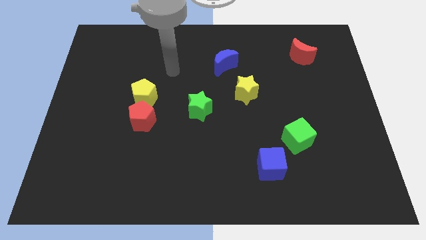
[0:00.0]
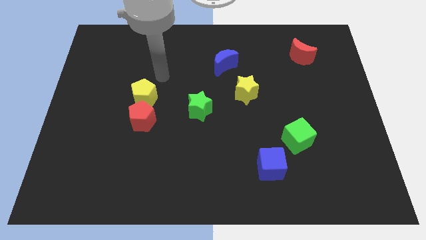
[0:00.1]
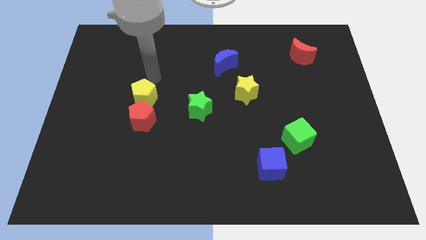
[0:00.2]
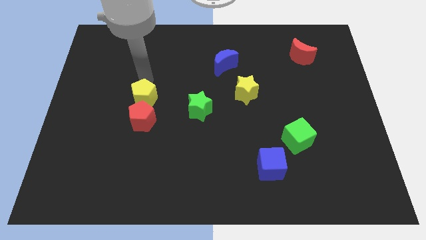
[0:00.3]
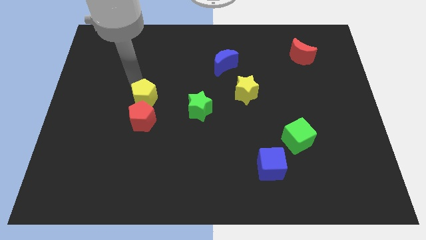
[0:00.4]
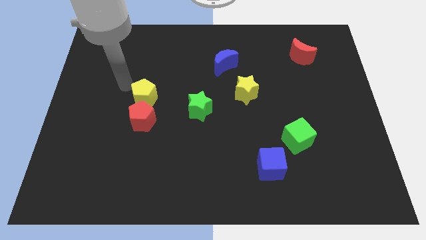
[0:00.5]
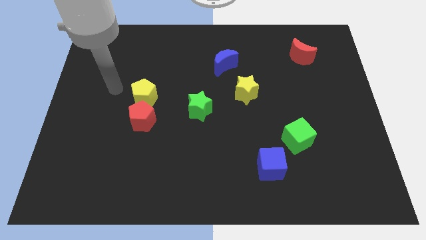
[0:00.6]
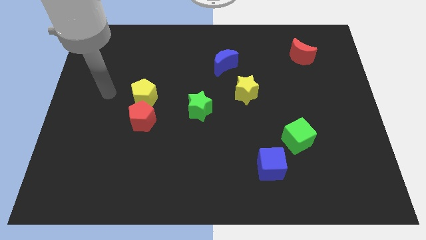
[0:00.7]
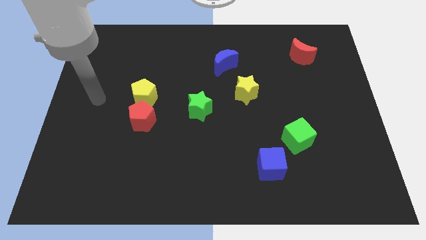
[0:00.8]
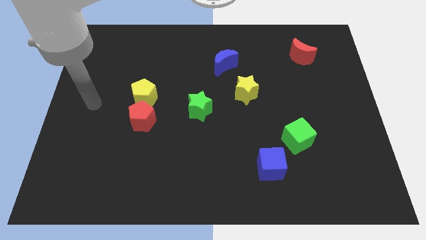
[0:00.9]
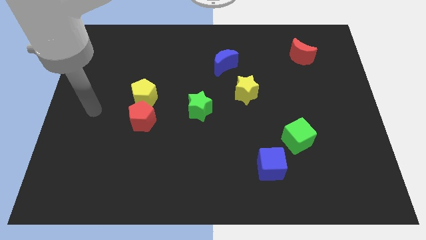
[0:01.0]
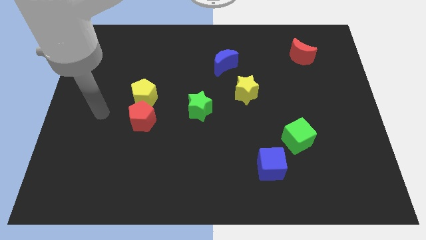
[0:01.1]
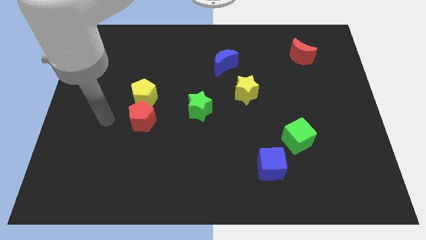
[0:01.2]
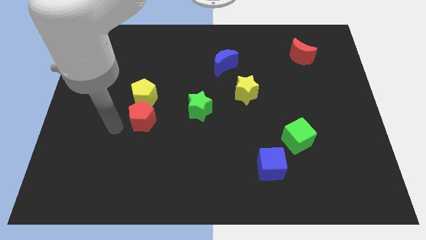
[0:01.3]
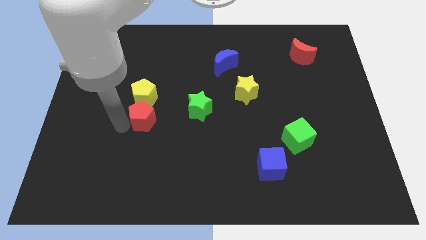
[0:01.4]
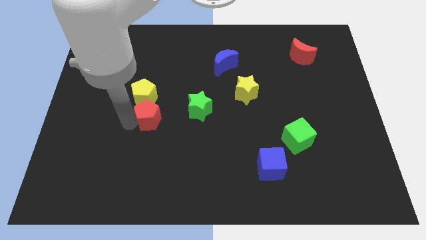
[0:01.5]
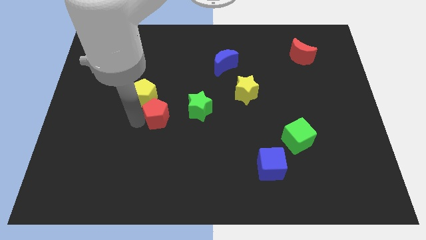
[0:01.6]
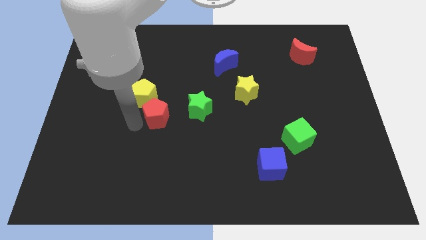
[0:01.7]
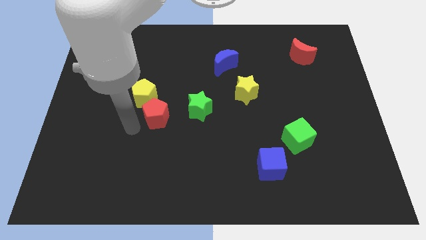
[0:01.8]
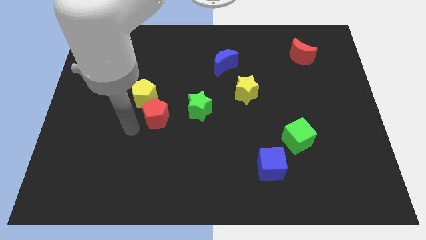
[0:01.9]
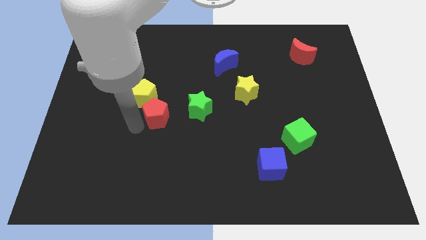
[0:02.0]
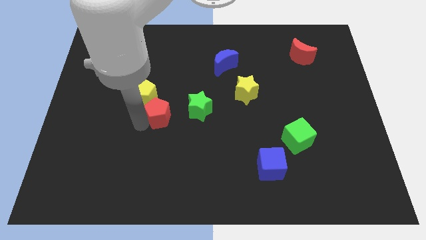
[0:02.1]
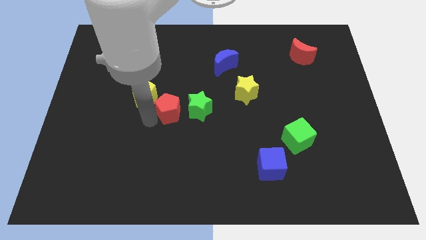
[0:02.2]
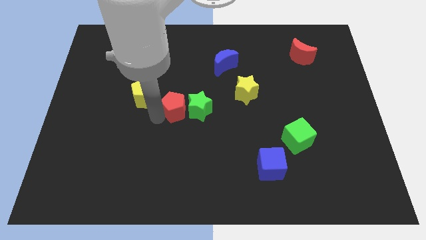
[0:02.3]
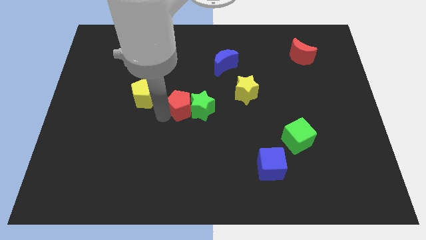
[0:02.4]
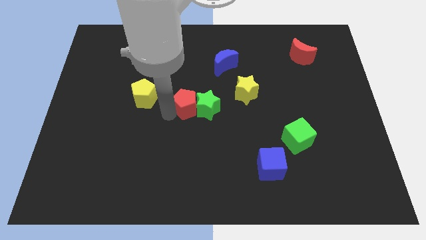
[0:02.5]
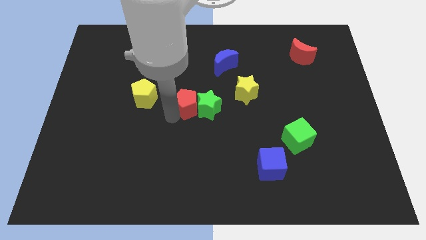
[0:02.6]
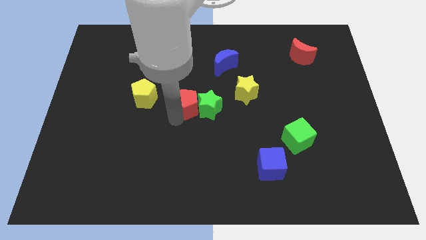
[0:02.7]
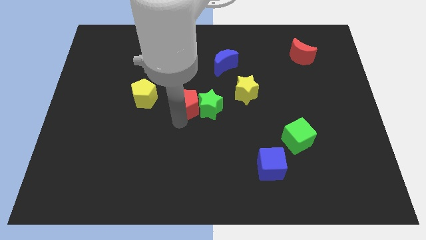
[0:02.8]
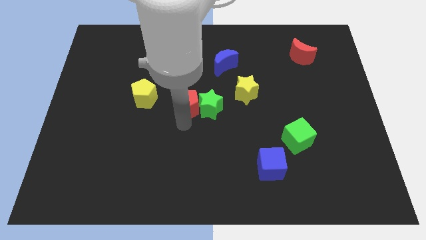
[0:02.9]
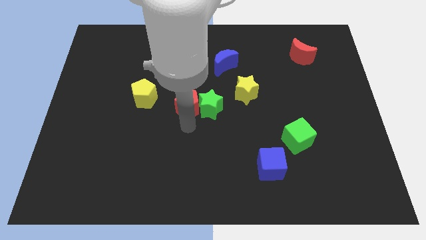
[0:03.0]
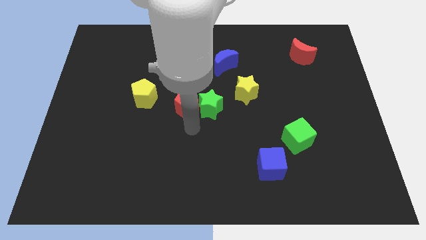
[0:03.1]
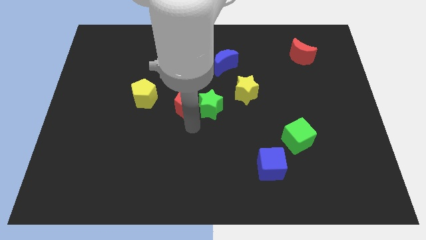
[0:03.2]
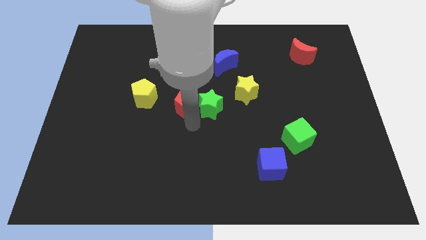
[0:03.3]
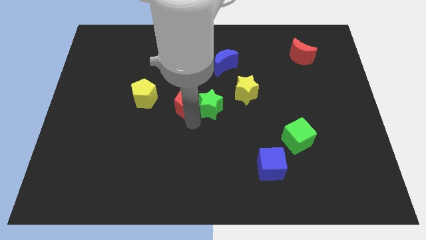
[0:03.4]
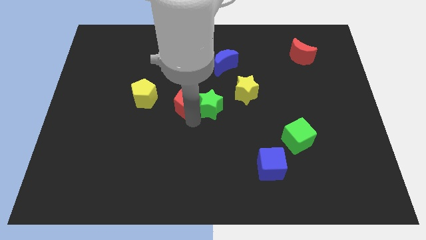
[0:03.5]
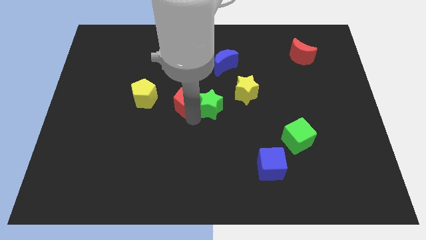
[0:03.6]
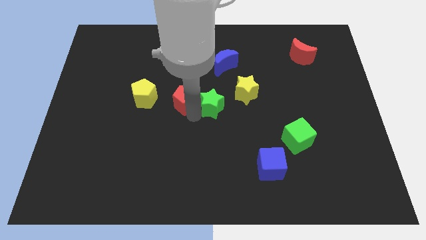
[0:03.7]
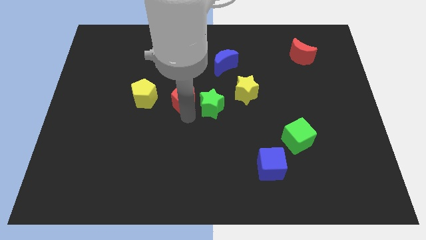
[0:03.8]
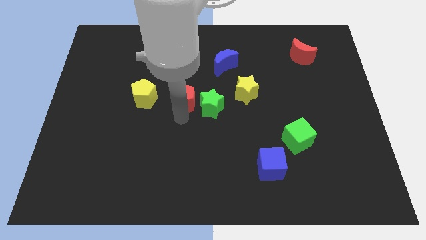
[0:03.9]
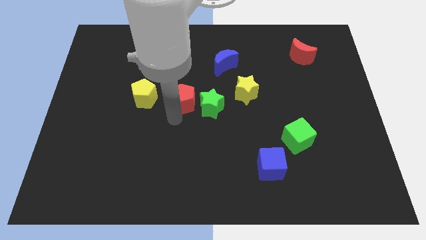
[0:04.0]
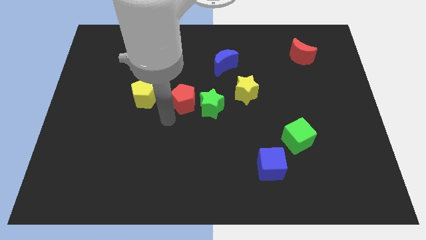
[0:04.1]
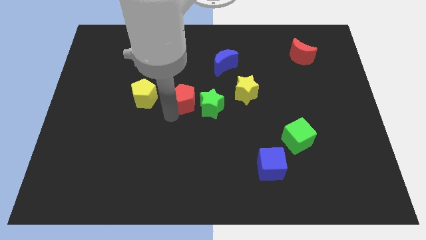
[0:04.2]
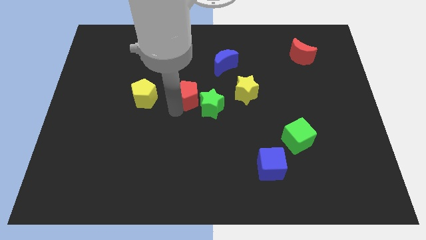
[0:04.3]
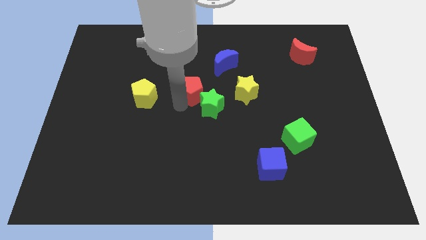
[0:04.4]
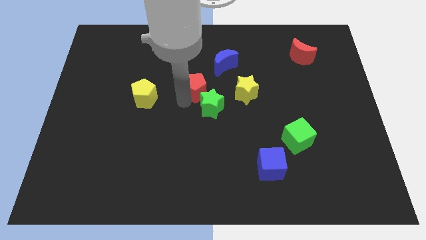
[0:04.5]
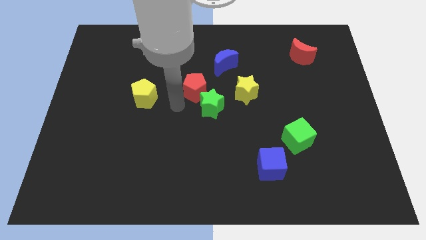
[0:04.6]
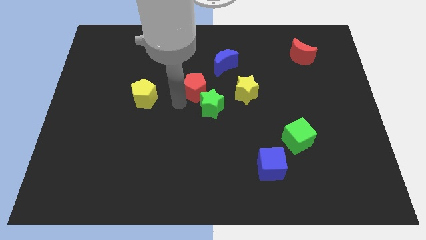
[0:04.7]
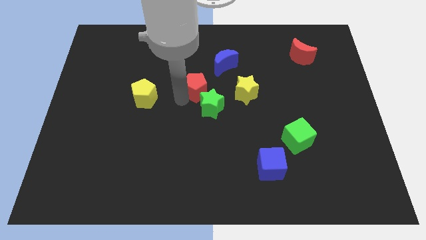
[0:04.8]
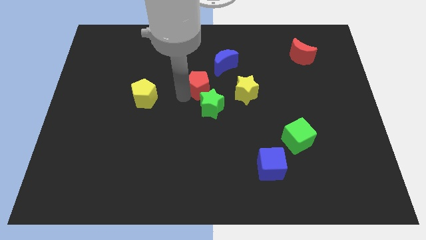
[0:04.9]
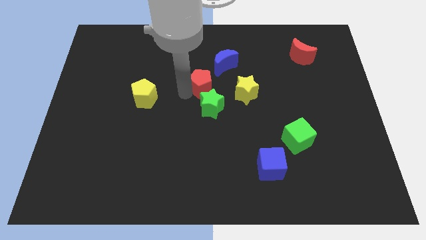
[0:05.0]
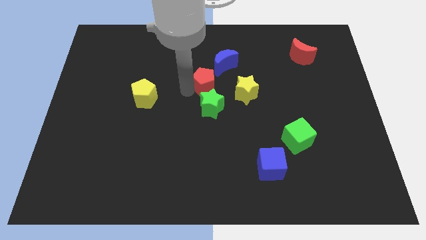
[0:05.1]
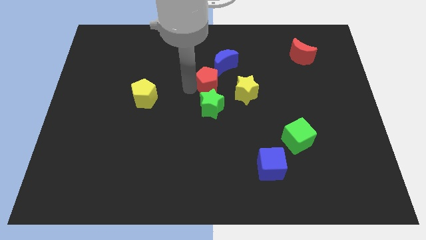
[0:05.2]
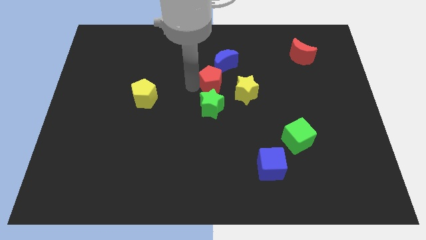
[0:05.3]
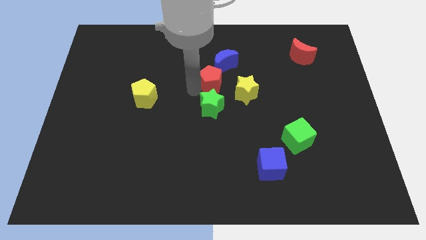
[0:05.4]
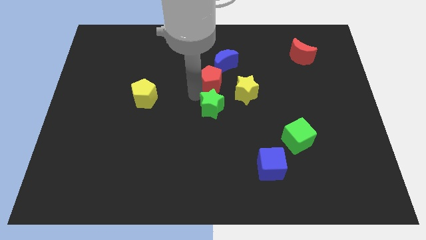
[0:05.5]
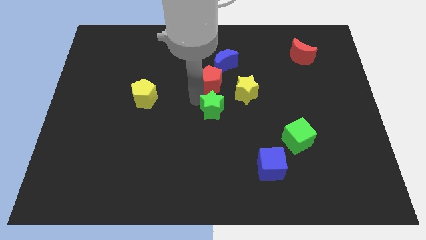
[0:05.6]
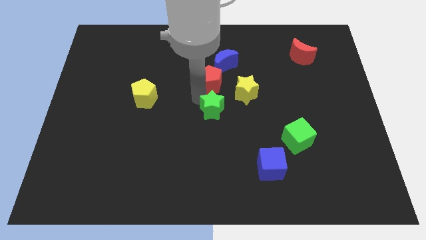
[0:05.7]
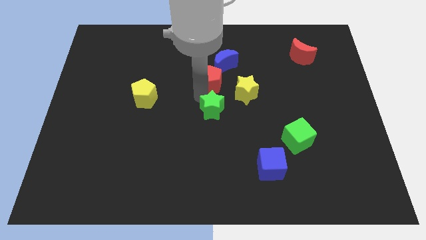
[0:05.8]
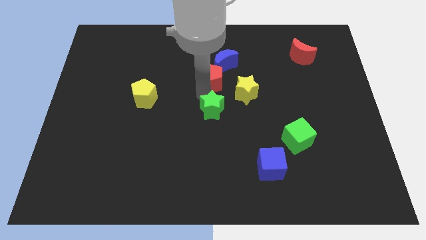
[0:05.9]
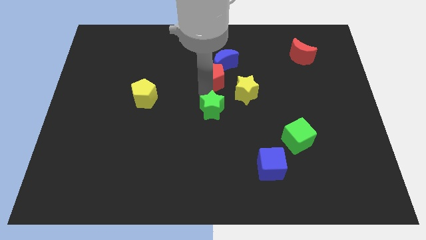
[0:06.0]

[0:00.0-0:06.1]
slide the red pentagon next to the blue moon

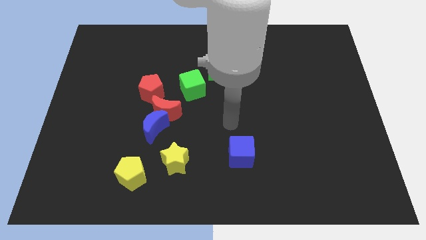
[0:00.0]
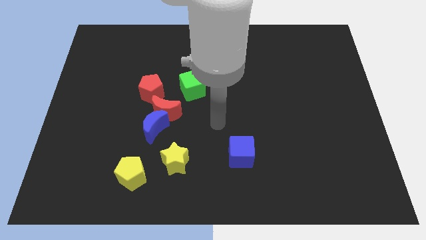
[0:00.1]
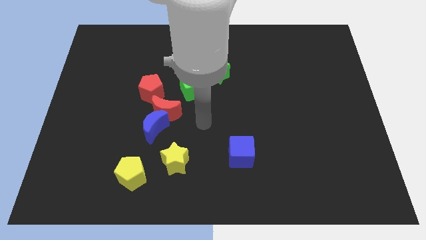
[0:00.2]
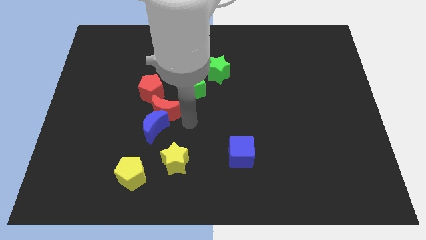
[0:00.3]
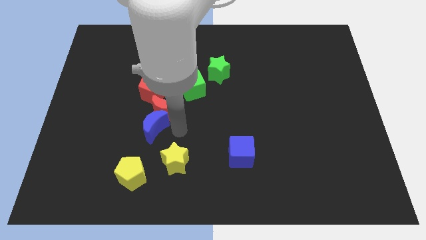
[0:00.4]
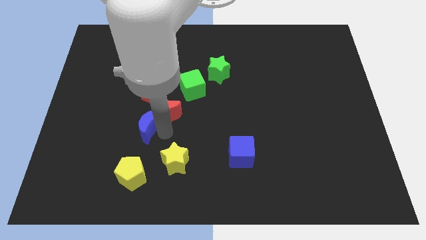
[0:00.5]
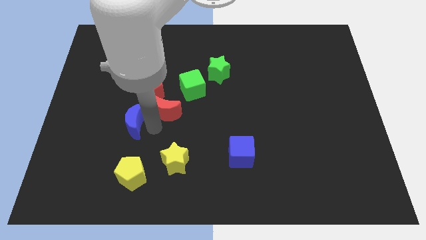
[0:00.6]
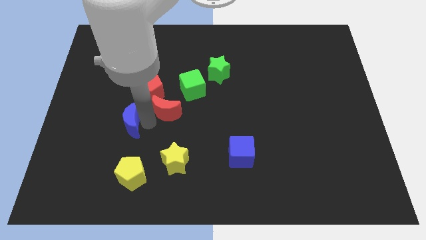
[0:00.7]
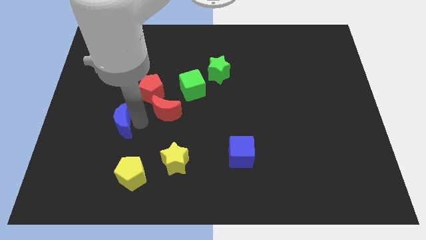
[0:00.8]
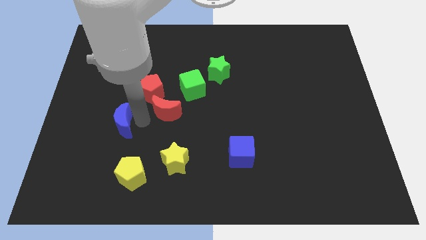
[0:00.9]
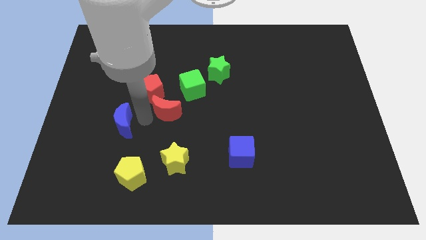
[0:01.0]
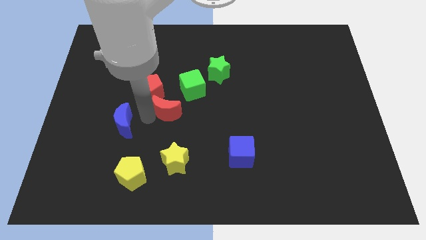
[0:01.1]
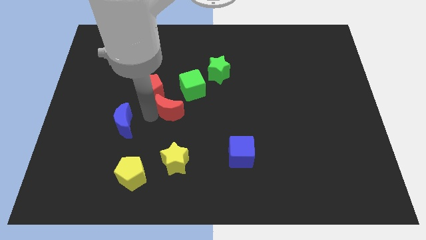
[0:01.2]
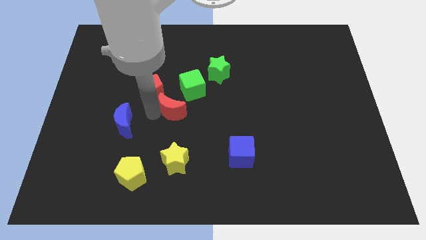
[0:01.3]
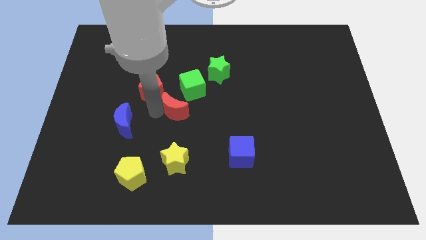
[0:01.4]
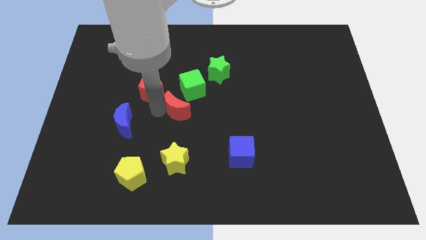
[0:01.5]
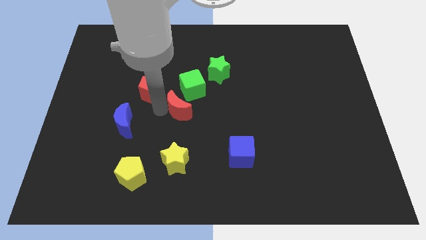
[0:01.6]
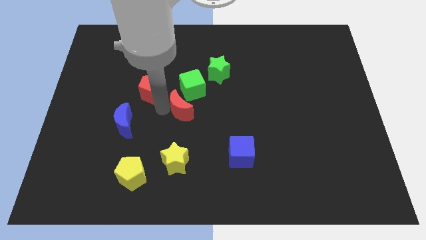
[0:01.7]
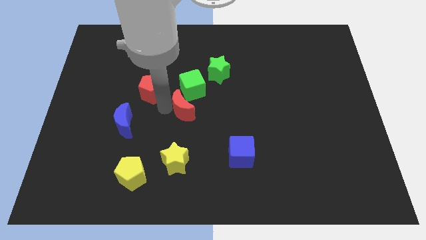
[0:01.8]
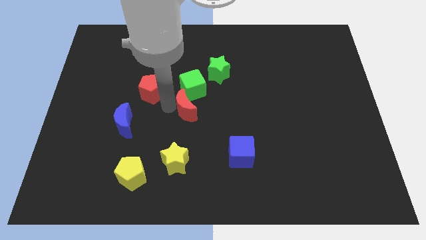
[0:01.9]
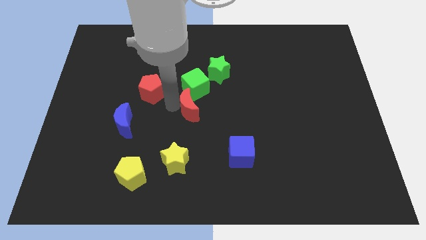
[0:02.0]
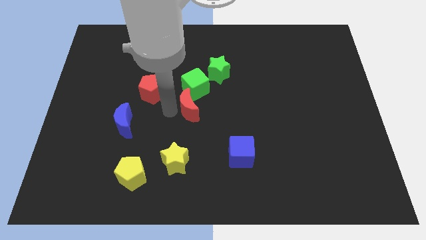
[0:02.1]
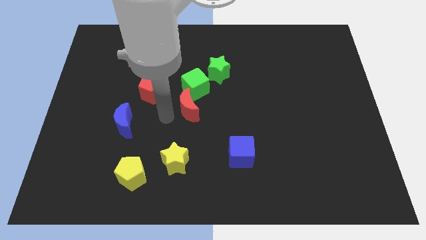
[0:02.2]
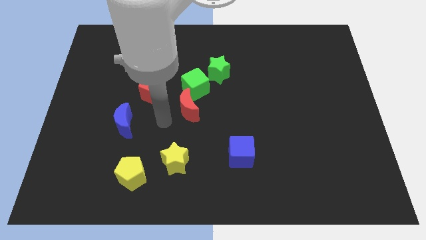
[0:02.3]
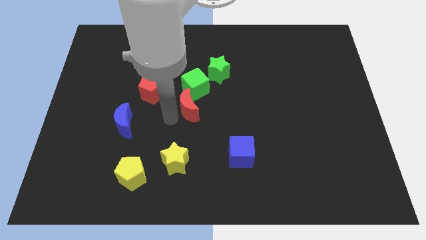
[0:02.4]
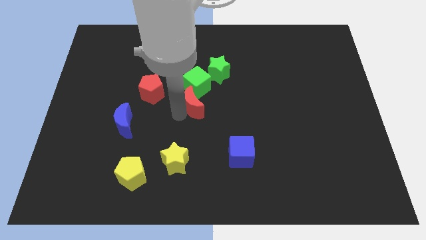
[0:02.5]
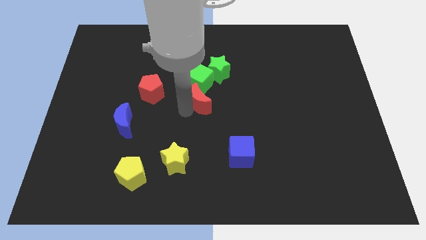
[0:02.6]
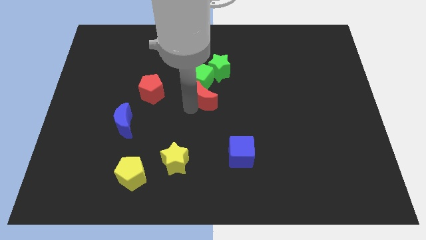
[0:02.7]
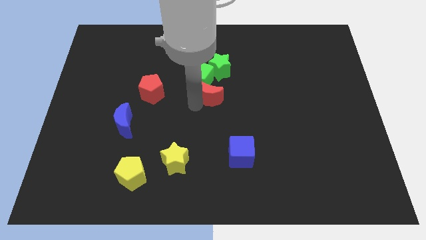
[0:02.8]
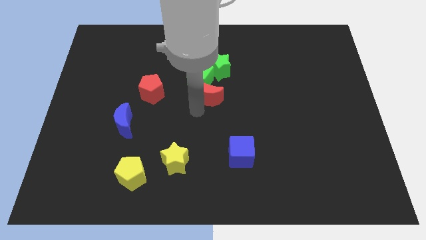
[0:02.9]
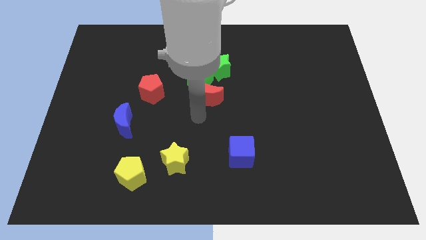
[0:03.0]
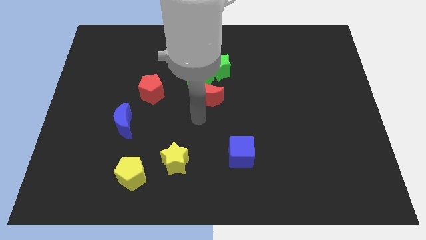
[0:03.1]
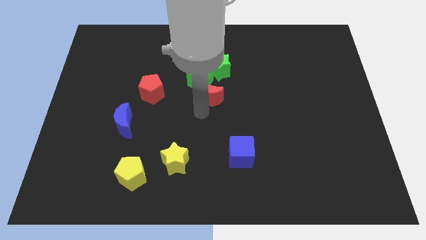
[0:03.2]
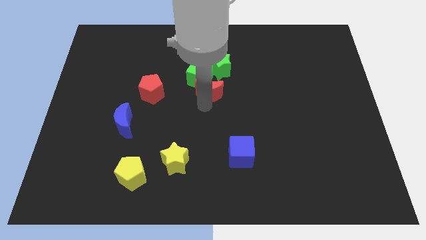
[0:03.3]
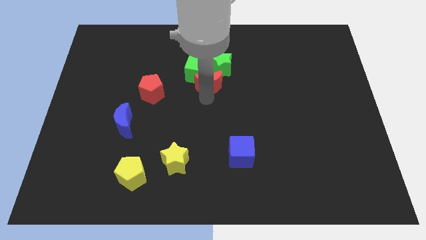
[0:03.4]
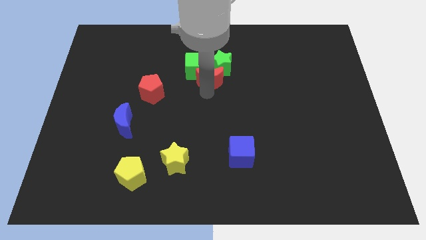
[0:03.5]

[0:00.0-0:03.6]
move the red moon next to the green star
